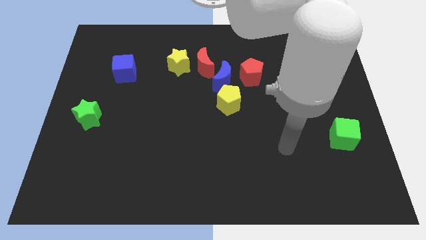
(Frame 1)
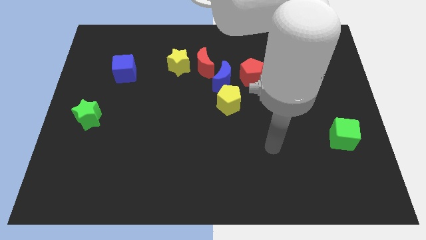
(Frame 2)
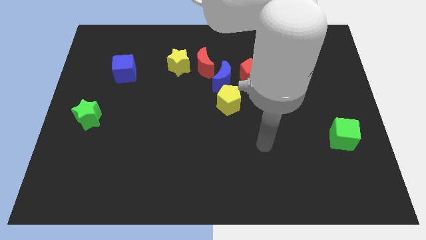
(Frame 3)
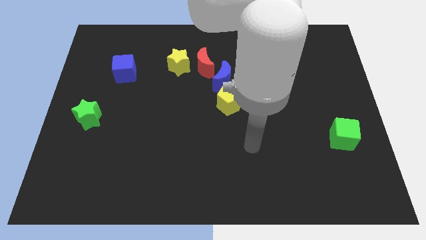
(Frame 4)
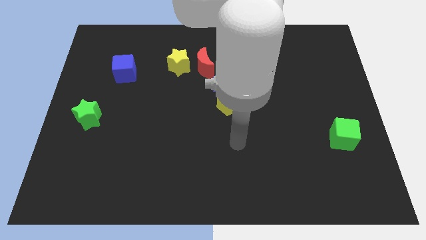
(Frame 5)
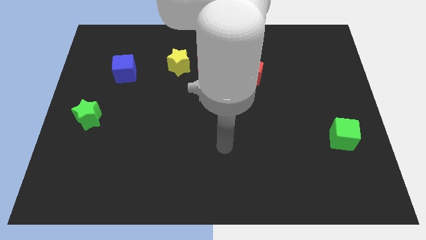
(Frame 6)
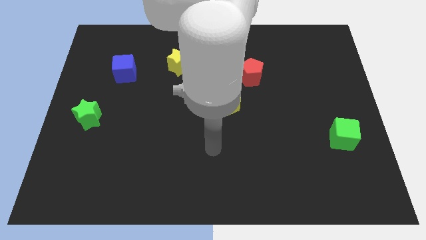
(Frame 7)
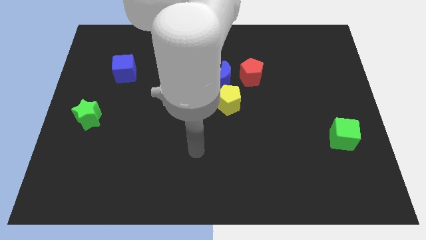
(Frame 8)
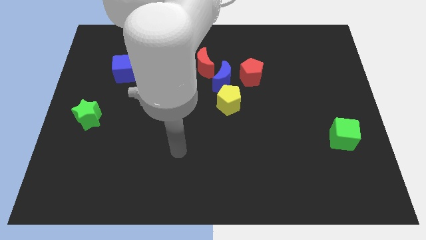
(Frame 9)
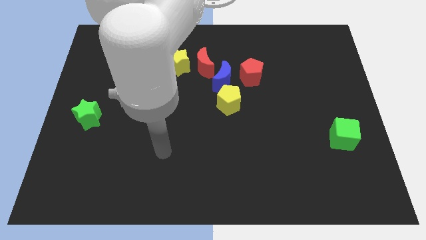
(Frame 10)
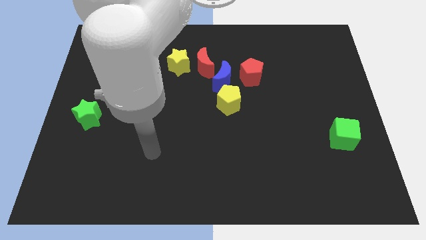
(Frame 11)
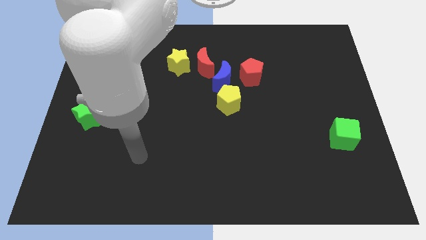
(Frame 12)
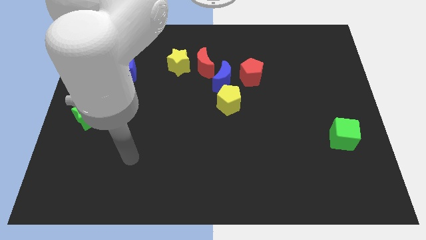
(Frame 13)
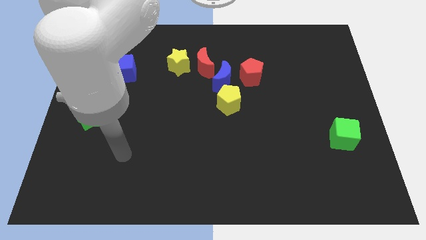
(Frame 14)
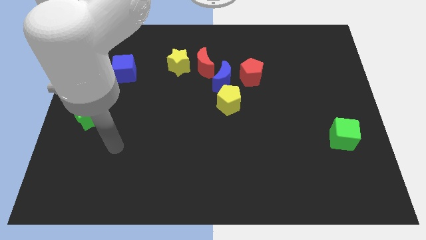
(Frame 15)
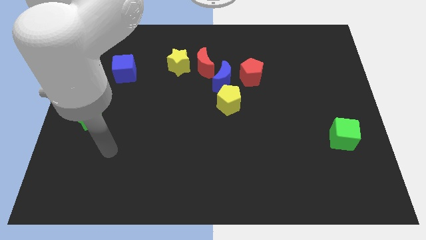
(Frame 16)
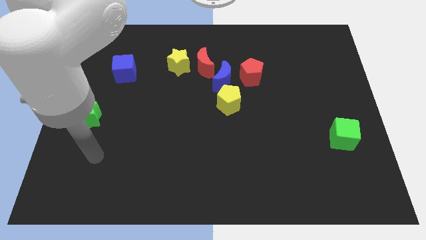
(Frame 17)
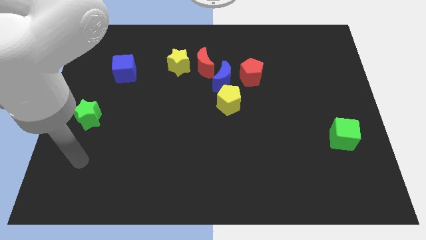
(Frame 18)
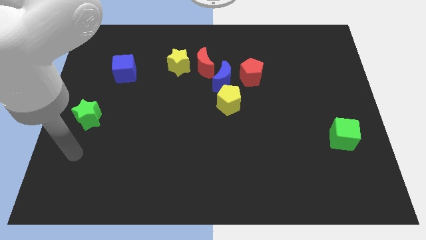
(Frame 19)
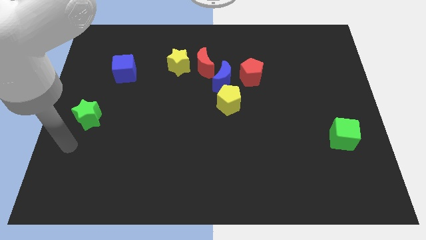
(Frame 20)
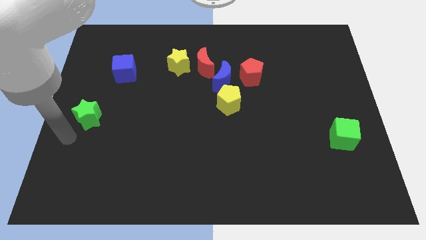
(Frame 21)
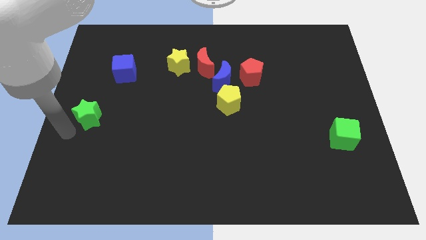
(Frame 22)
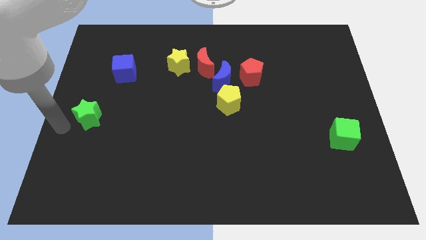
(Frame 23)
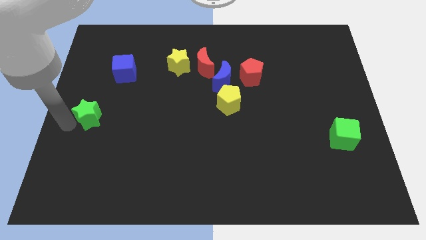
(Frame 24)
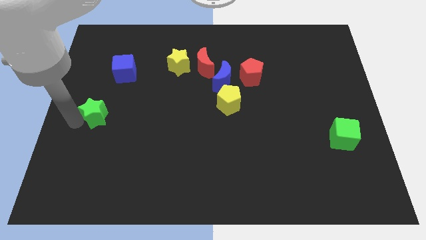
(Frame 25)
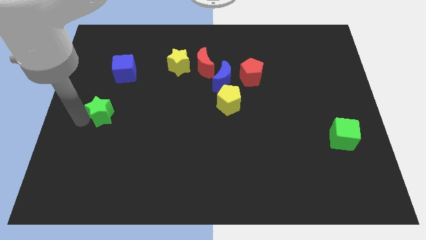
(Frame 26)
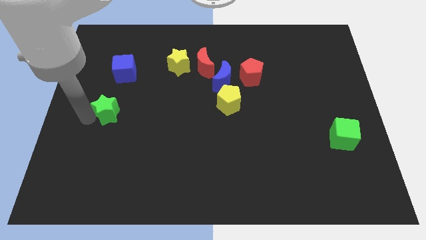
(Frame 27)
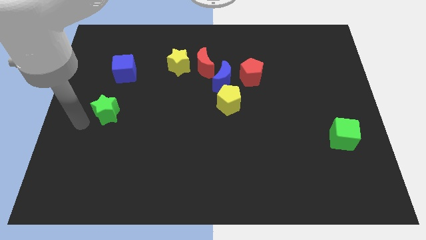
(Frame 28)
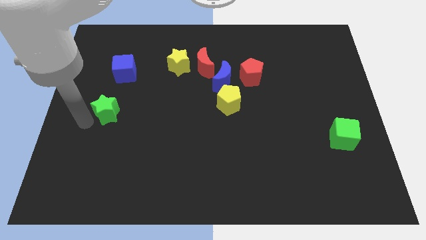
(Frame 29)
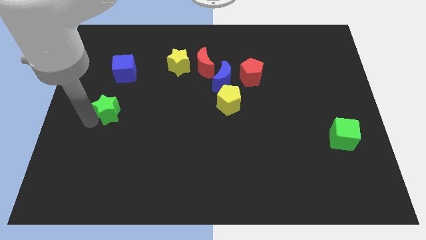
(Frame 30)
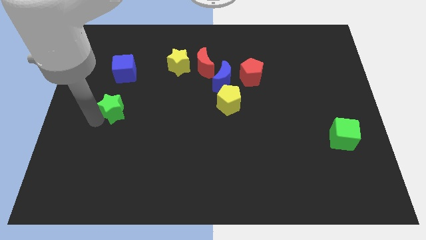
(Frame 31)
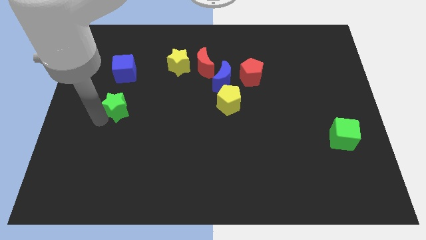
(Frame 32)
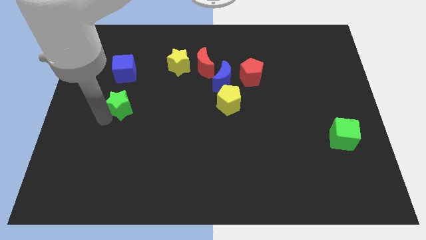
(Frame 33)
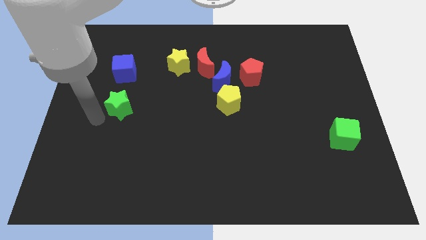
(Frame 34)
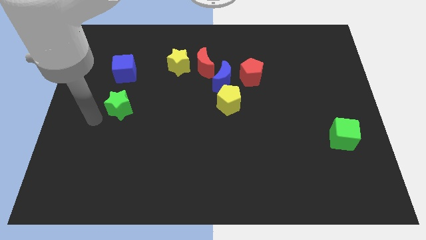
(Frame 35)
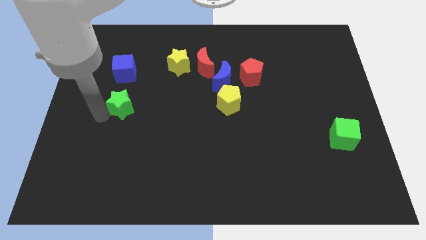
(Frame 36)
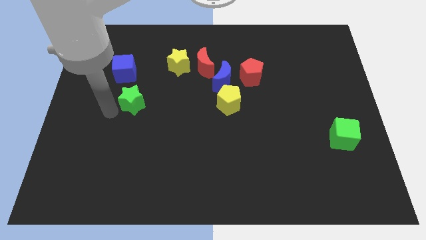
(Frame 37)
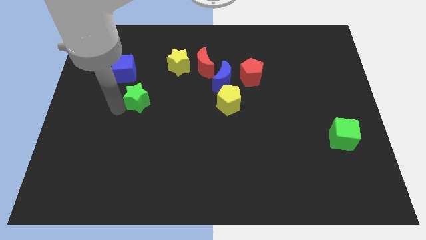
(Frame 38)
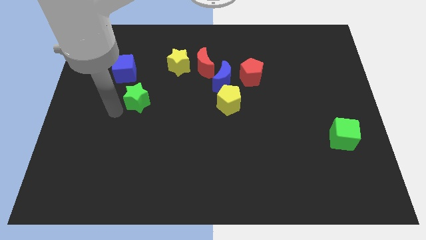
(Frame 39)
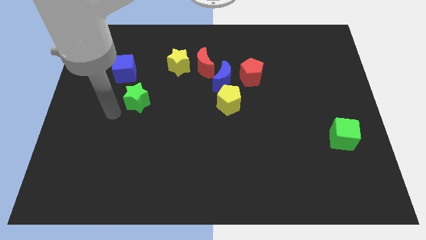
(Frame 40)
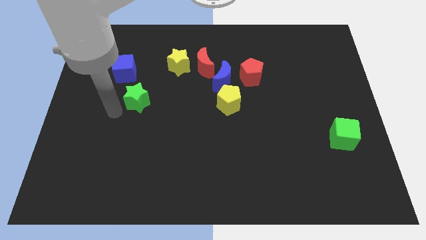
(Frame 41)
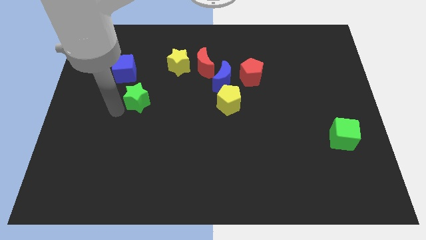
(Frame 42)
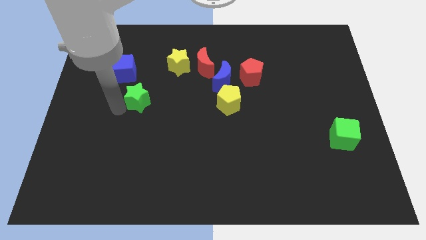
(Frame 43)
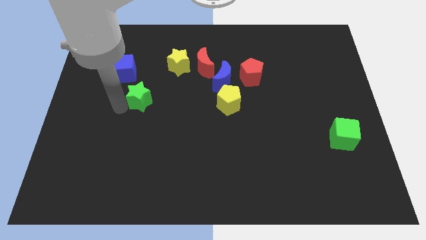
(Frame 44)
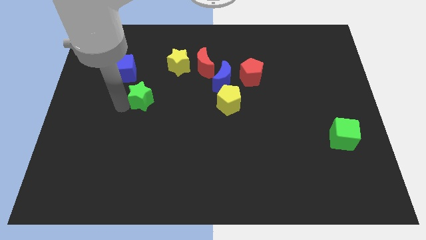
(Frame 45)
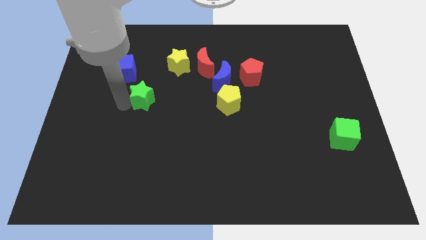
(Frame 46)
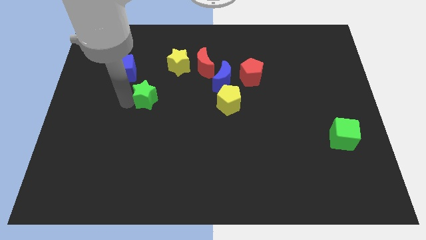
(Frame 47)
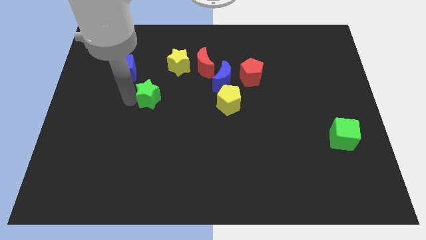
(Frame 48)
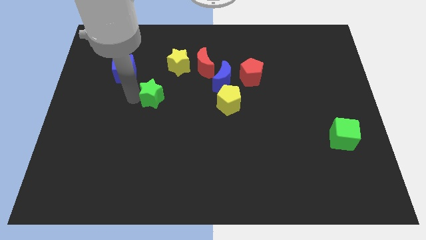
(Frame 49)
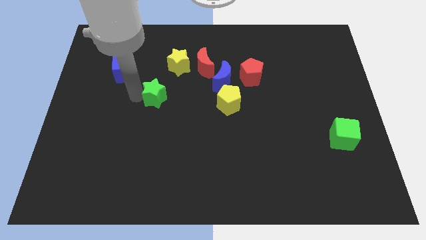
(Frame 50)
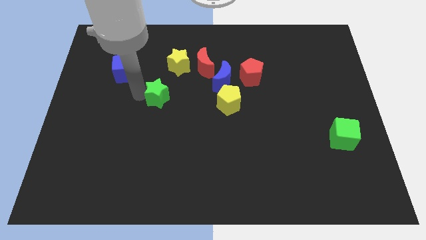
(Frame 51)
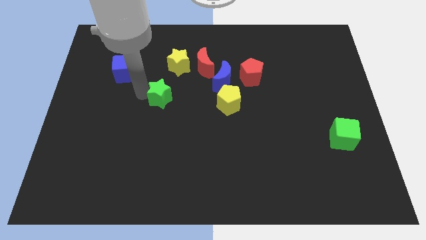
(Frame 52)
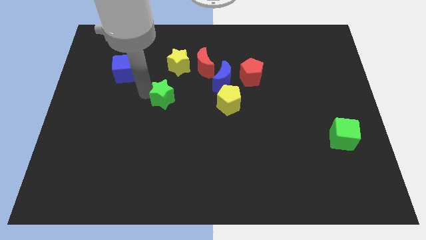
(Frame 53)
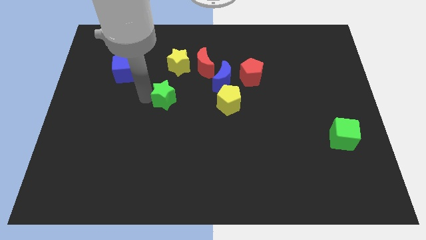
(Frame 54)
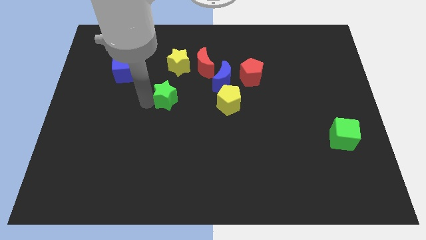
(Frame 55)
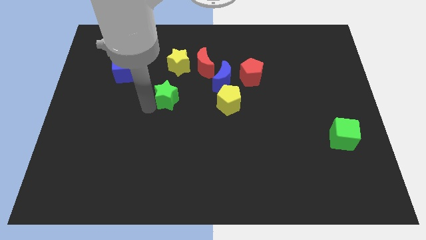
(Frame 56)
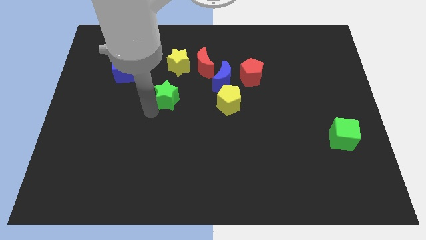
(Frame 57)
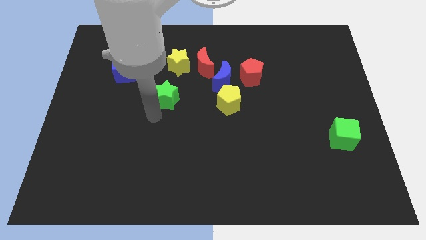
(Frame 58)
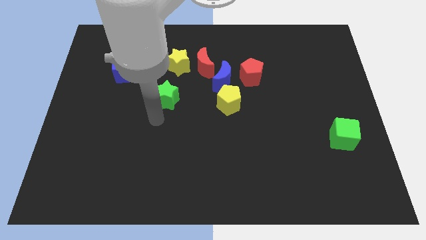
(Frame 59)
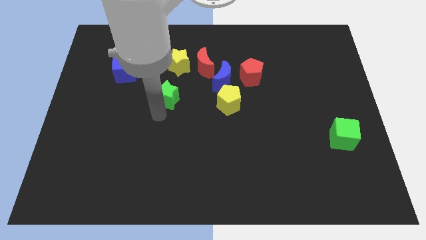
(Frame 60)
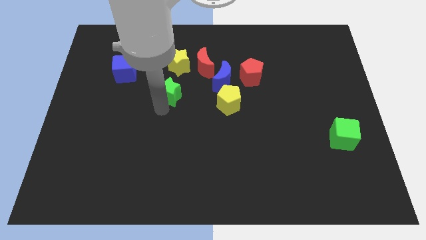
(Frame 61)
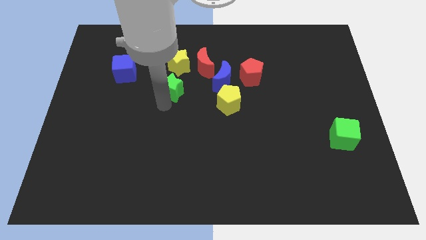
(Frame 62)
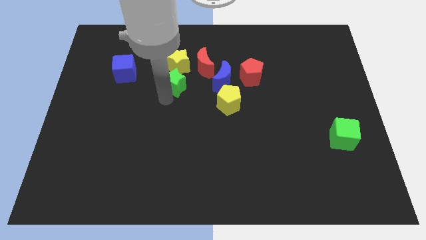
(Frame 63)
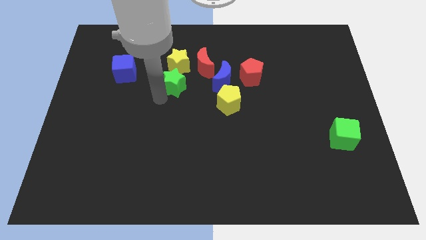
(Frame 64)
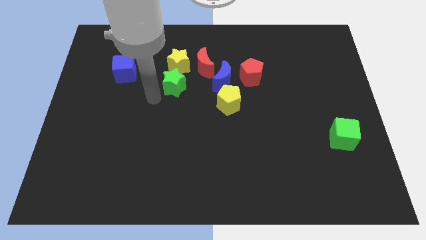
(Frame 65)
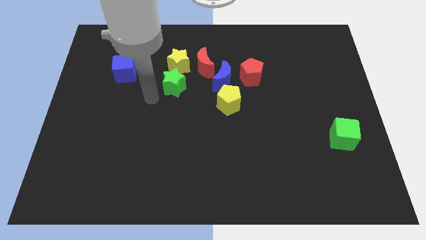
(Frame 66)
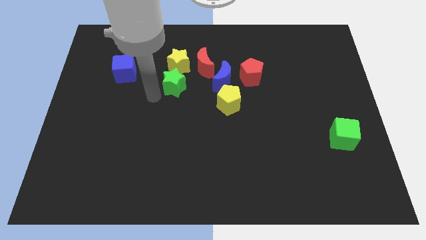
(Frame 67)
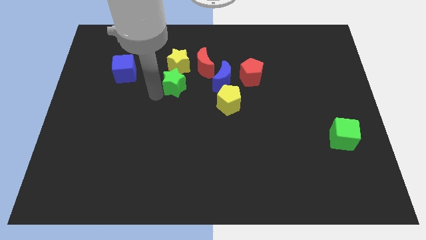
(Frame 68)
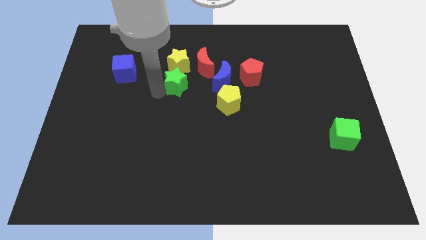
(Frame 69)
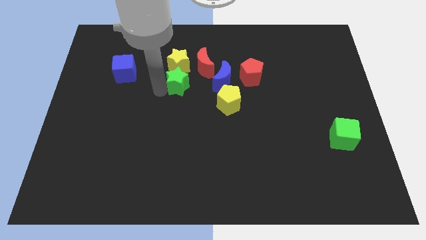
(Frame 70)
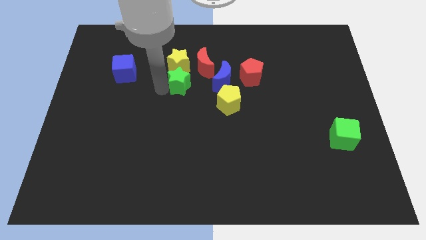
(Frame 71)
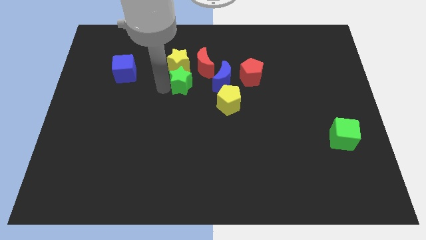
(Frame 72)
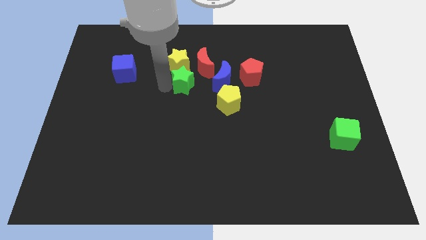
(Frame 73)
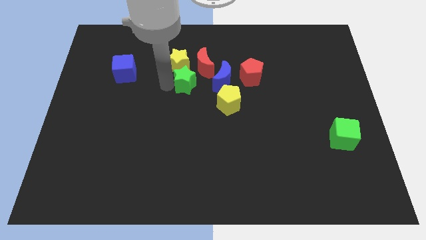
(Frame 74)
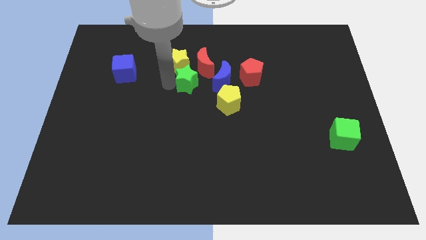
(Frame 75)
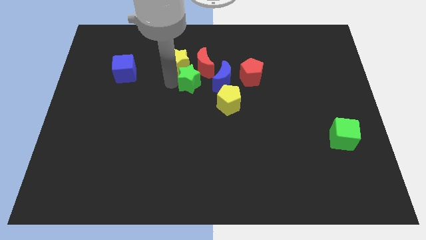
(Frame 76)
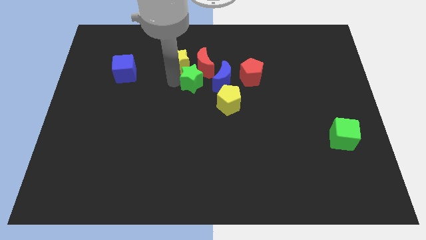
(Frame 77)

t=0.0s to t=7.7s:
slide the green star close to the red moon
